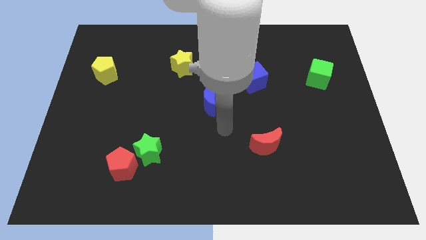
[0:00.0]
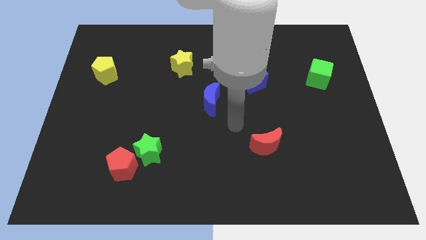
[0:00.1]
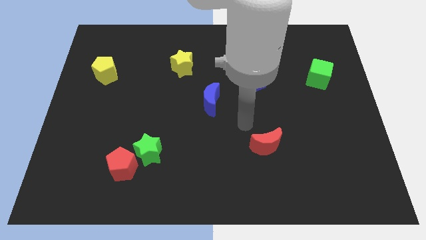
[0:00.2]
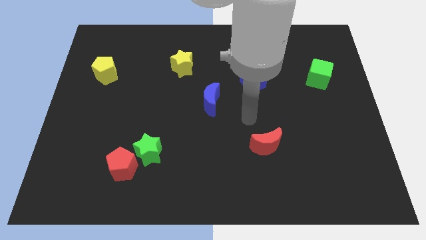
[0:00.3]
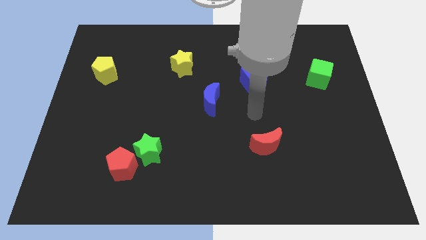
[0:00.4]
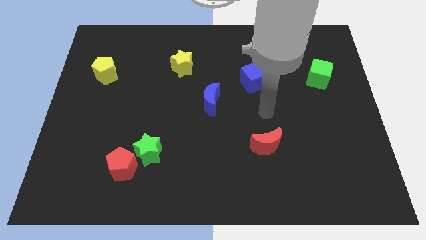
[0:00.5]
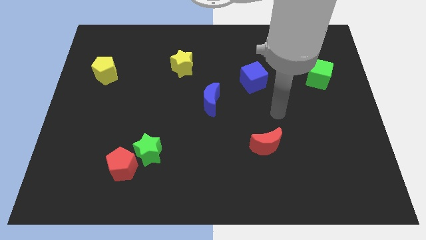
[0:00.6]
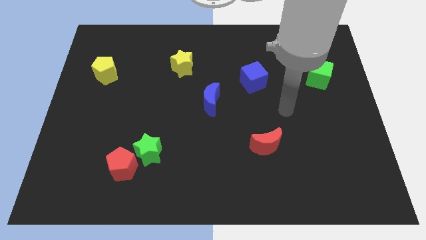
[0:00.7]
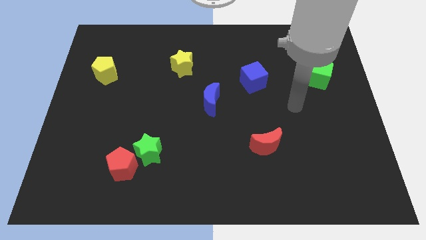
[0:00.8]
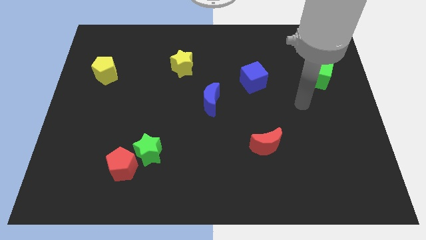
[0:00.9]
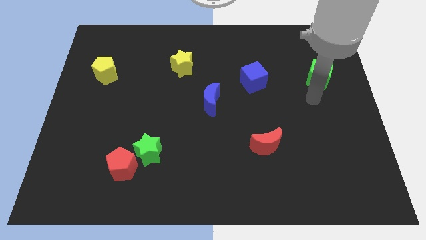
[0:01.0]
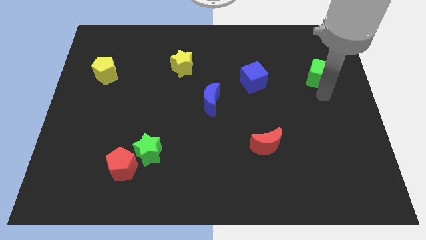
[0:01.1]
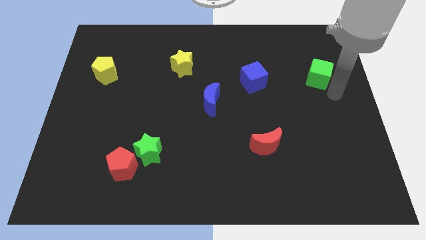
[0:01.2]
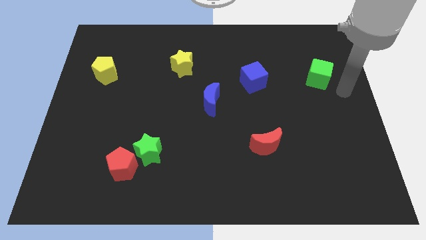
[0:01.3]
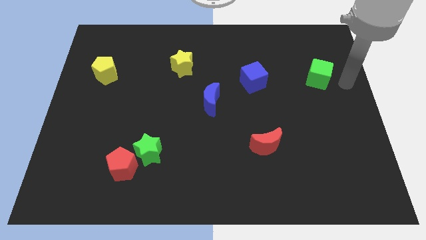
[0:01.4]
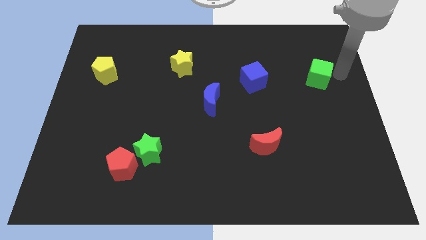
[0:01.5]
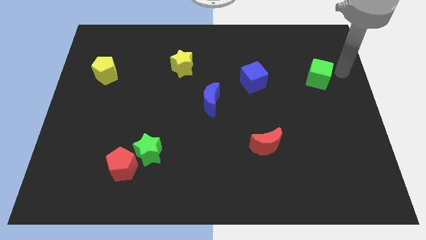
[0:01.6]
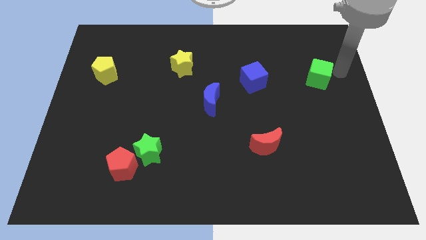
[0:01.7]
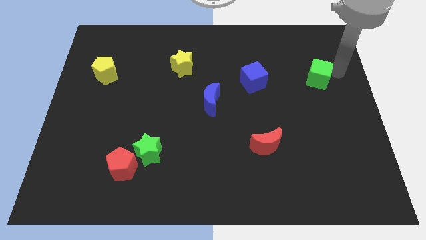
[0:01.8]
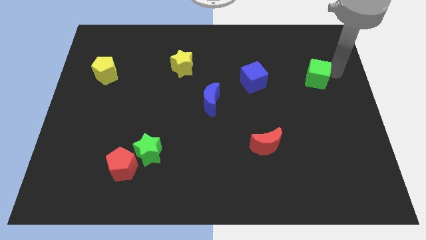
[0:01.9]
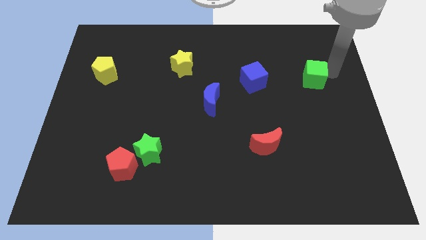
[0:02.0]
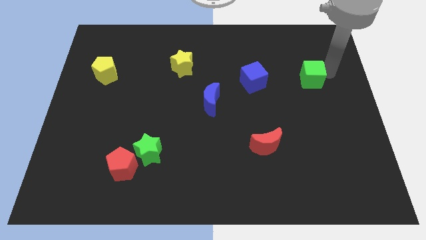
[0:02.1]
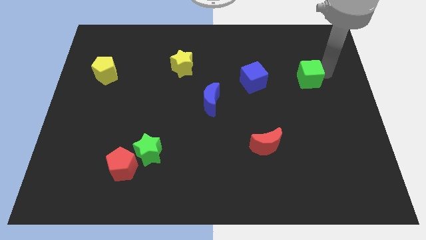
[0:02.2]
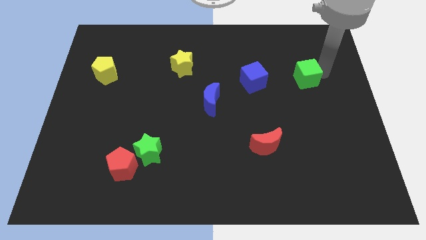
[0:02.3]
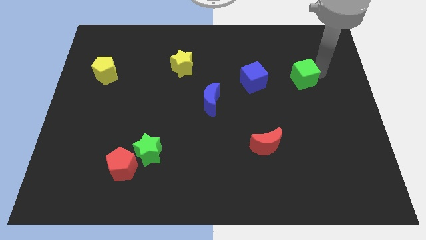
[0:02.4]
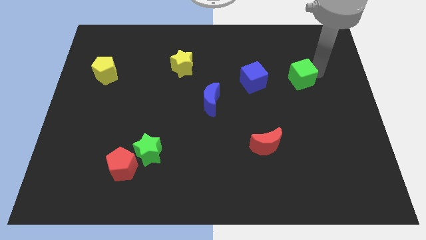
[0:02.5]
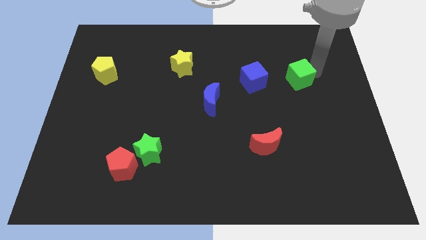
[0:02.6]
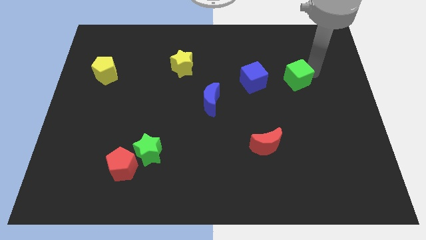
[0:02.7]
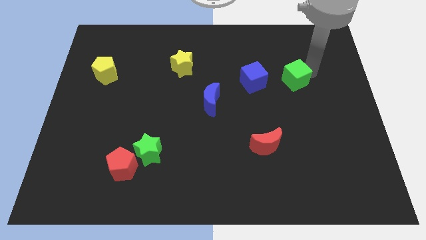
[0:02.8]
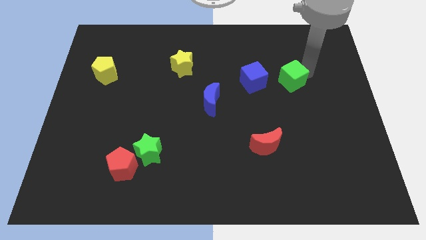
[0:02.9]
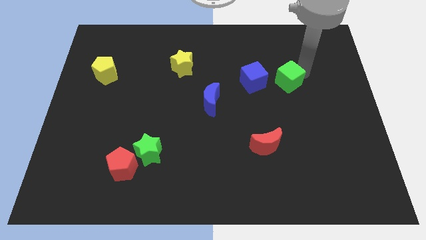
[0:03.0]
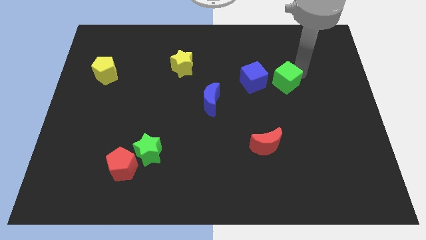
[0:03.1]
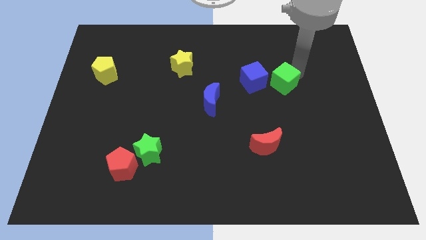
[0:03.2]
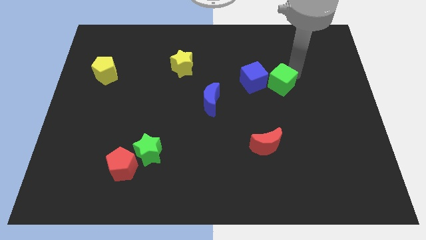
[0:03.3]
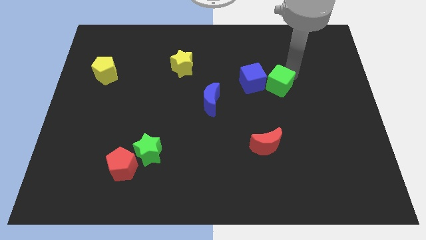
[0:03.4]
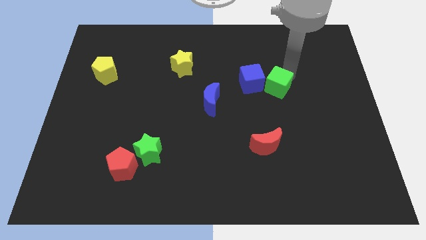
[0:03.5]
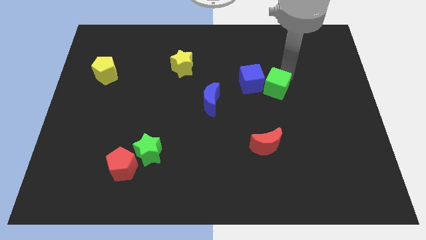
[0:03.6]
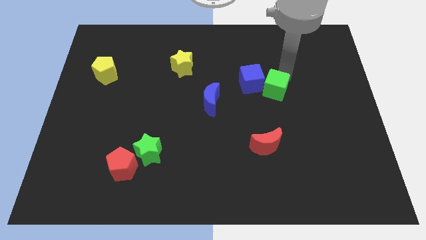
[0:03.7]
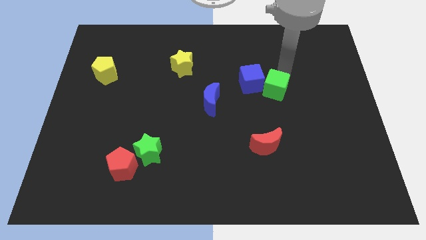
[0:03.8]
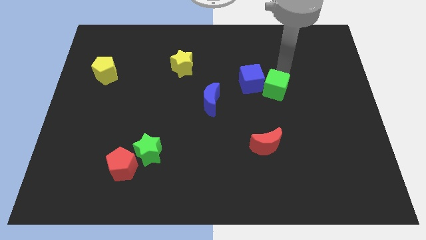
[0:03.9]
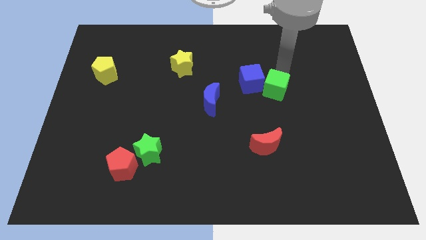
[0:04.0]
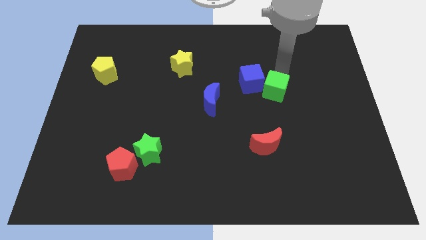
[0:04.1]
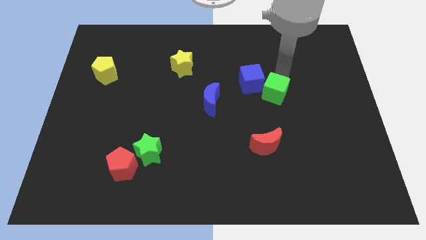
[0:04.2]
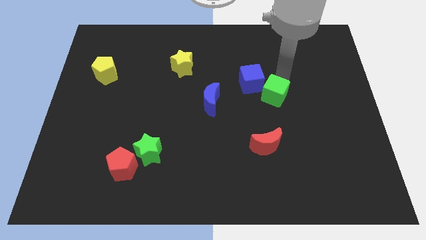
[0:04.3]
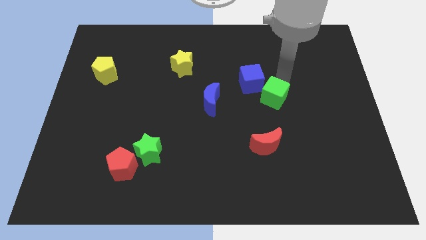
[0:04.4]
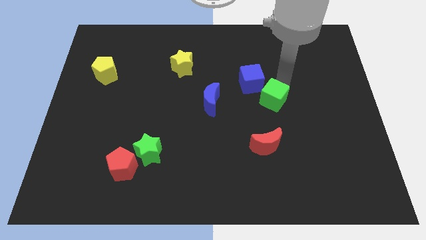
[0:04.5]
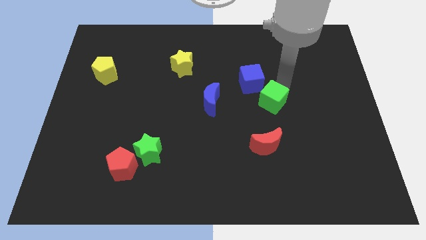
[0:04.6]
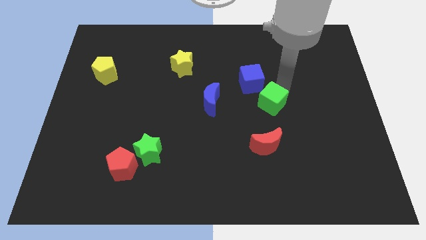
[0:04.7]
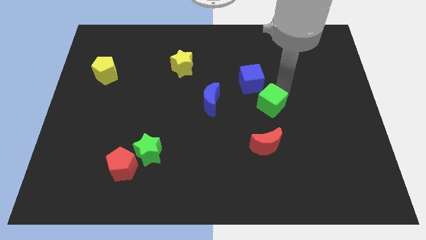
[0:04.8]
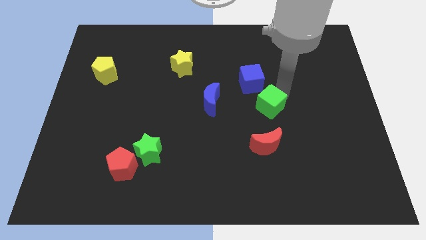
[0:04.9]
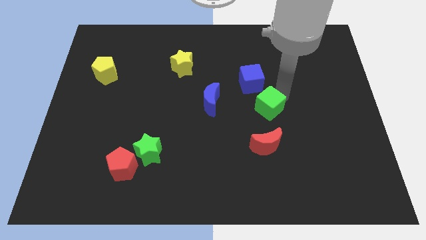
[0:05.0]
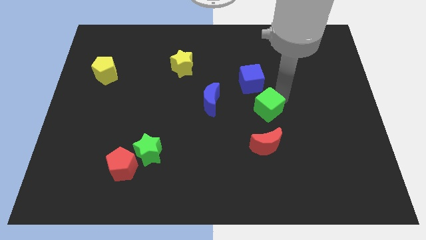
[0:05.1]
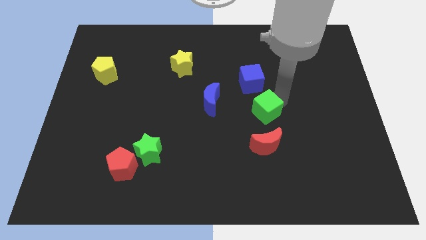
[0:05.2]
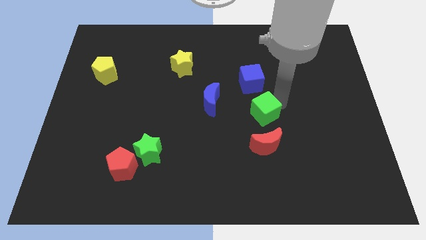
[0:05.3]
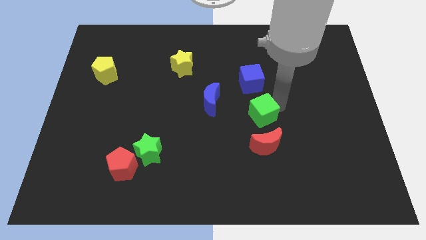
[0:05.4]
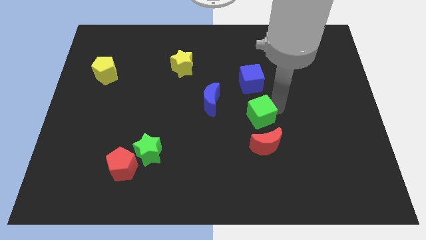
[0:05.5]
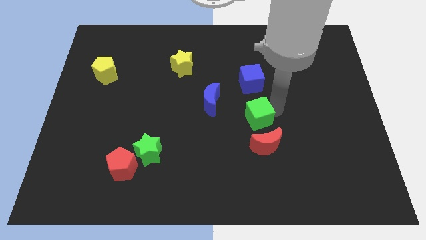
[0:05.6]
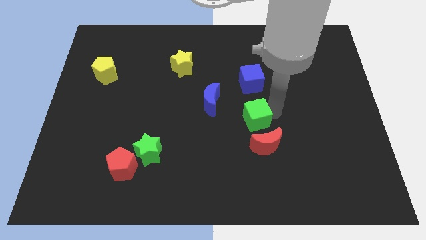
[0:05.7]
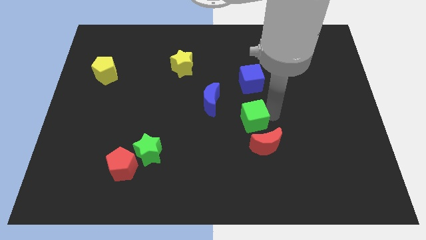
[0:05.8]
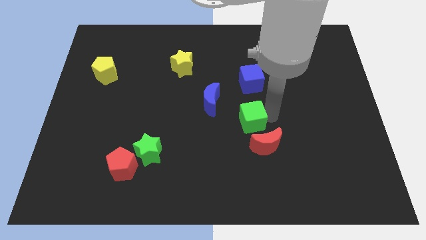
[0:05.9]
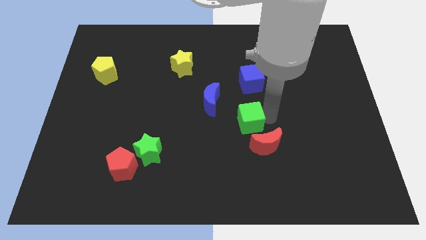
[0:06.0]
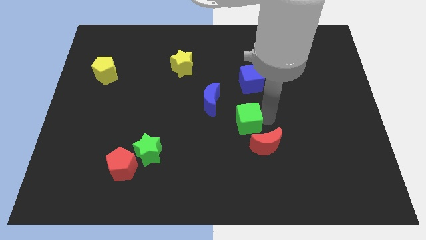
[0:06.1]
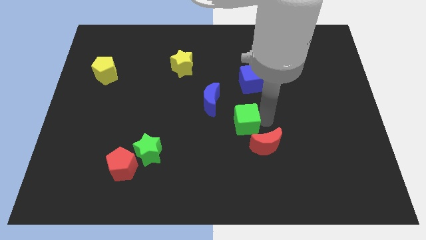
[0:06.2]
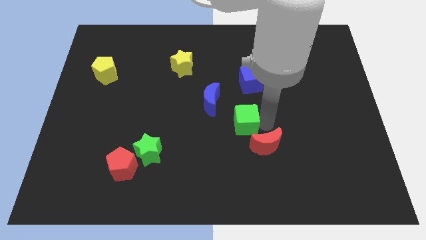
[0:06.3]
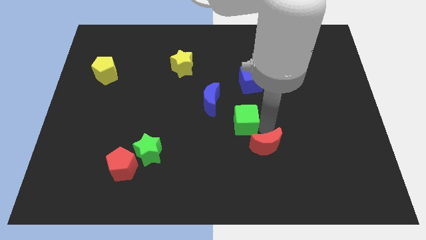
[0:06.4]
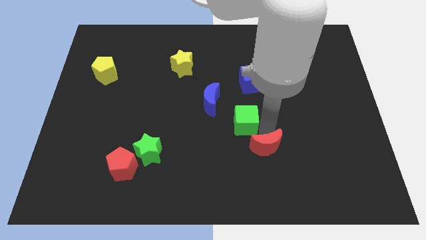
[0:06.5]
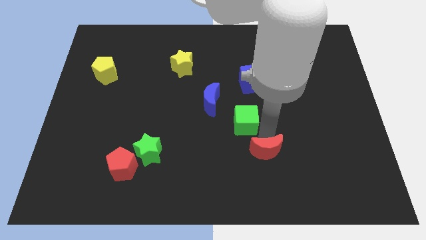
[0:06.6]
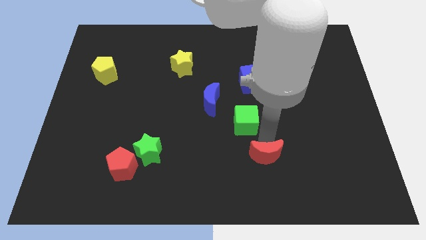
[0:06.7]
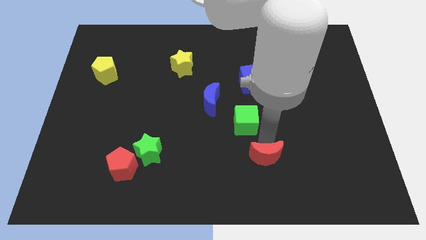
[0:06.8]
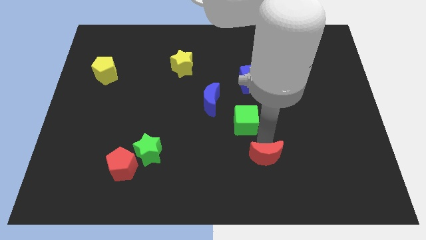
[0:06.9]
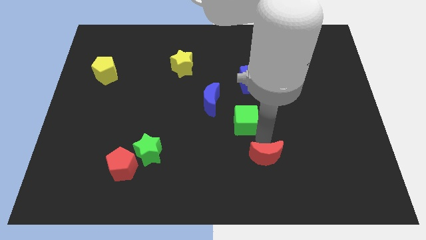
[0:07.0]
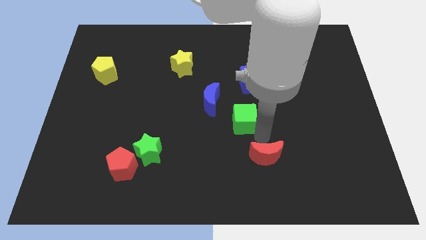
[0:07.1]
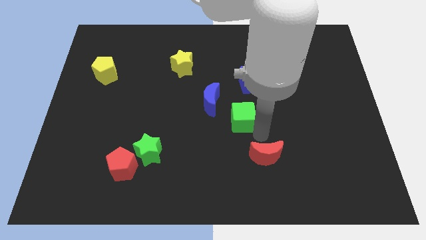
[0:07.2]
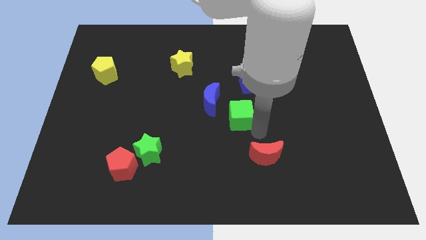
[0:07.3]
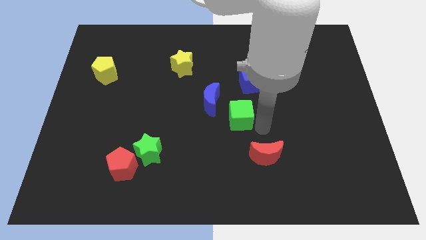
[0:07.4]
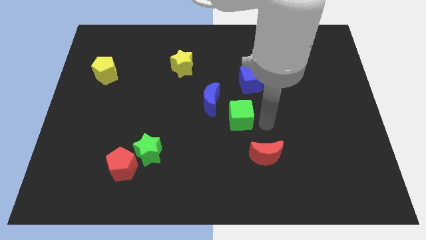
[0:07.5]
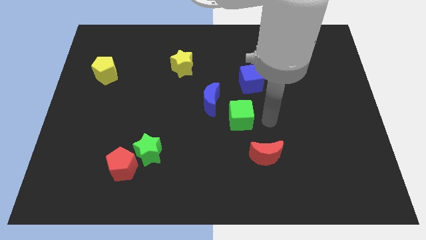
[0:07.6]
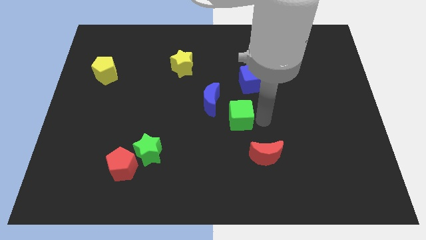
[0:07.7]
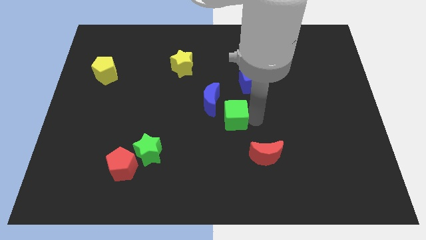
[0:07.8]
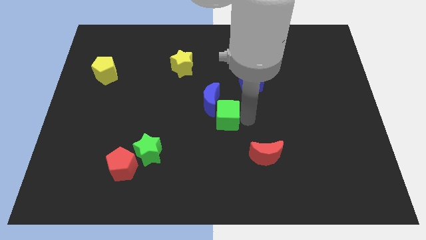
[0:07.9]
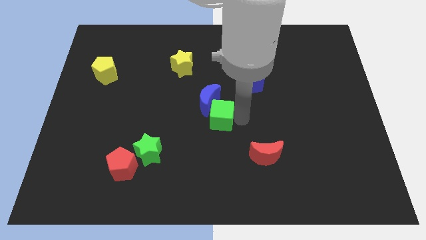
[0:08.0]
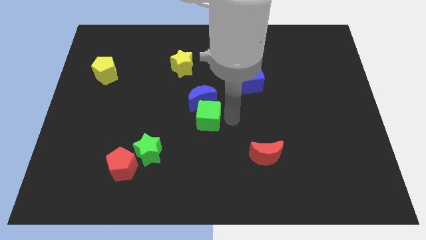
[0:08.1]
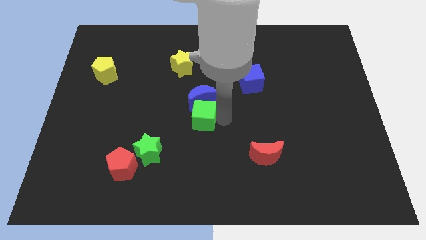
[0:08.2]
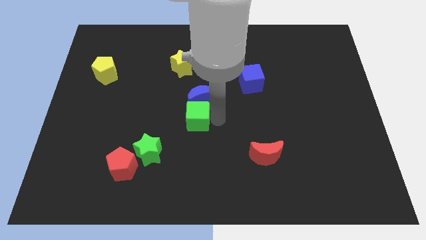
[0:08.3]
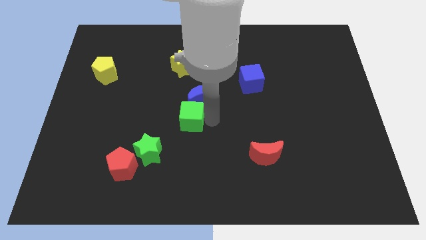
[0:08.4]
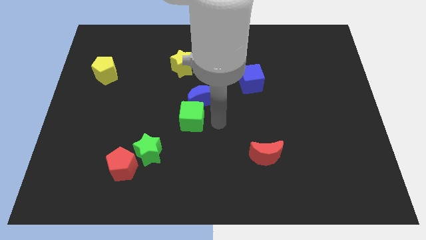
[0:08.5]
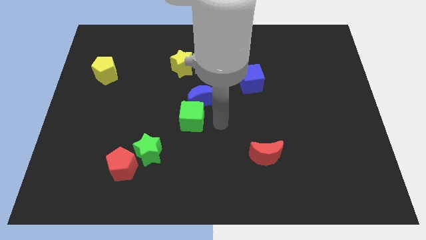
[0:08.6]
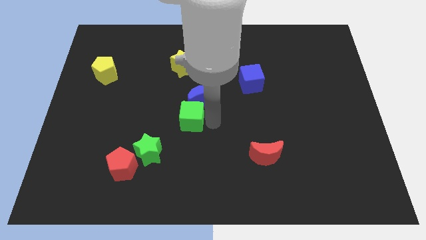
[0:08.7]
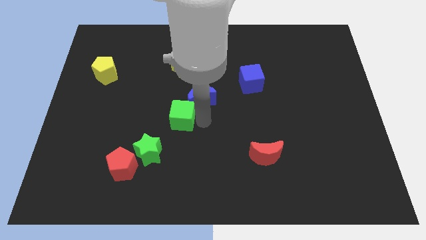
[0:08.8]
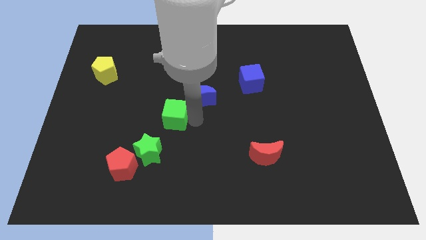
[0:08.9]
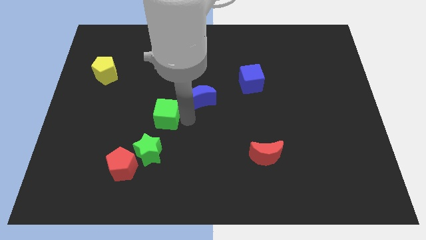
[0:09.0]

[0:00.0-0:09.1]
move the green cube to the top of the green star
